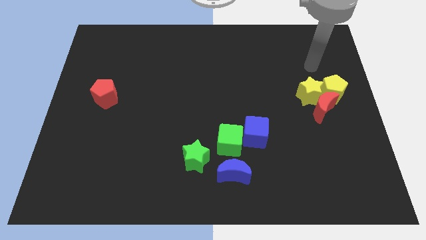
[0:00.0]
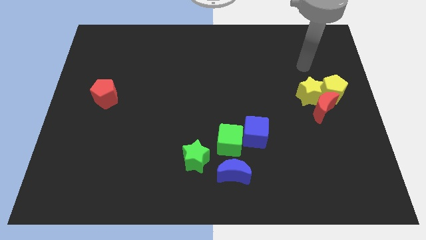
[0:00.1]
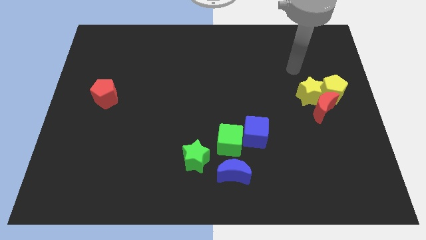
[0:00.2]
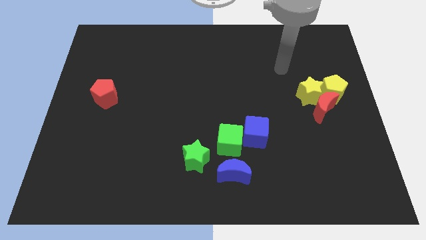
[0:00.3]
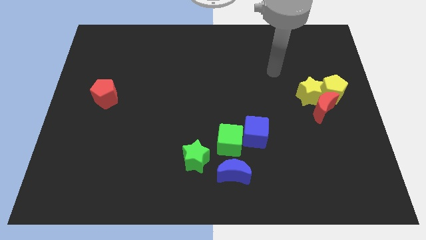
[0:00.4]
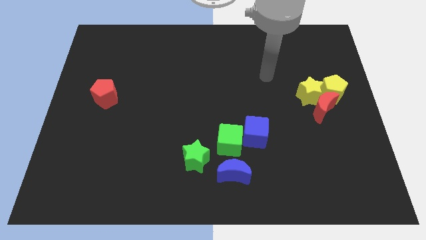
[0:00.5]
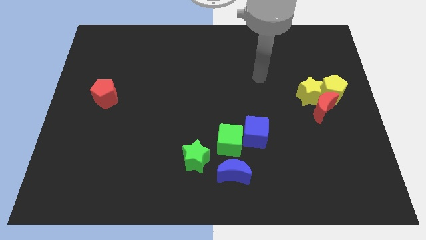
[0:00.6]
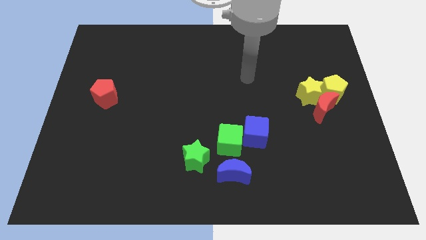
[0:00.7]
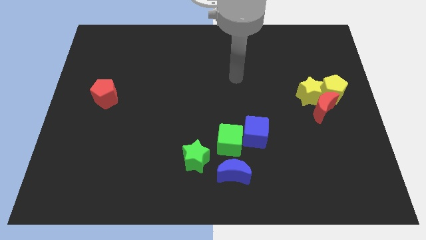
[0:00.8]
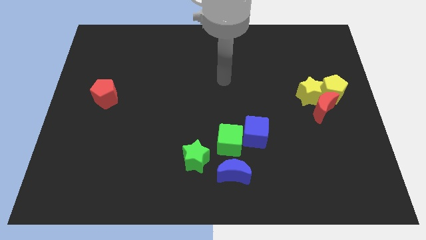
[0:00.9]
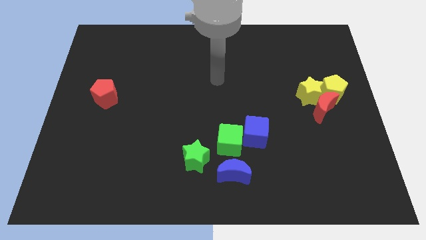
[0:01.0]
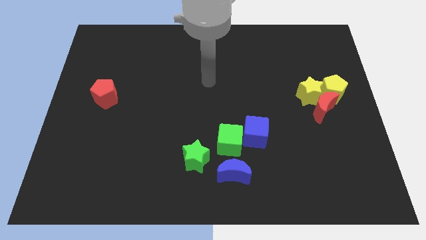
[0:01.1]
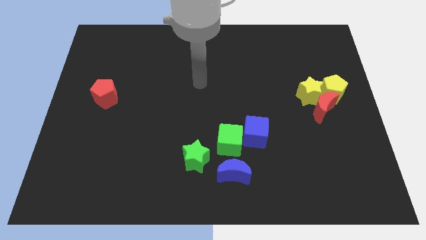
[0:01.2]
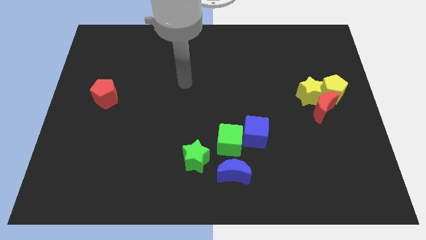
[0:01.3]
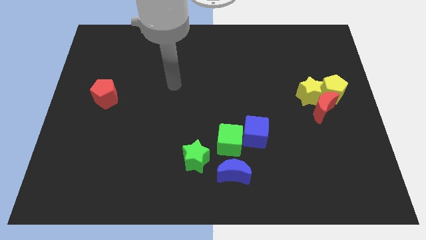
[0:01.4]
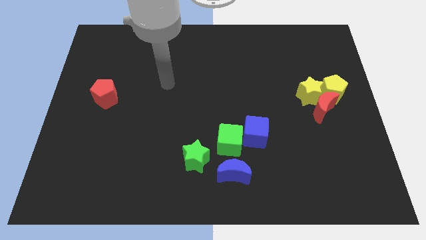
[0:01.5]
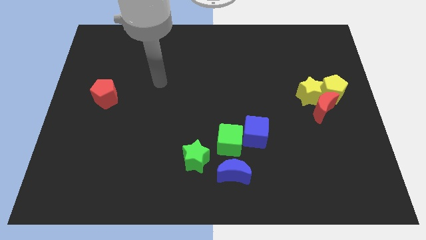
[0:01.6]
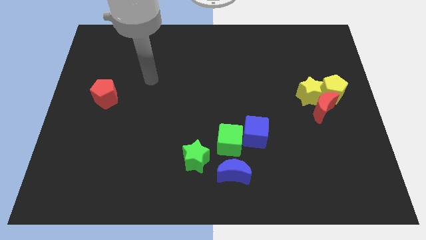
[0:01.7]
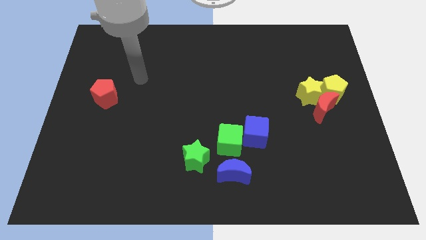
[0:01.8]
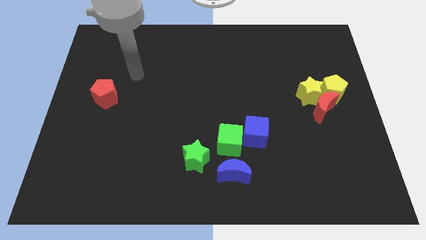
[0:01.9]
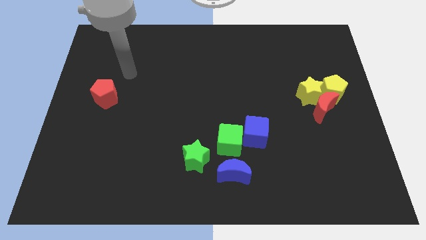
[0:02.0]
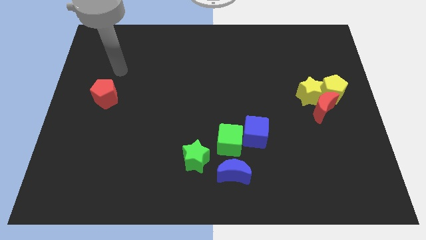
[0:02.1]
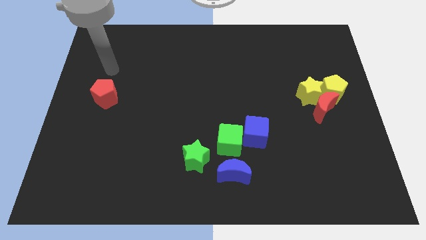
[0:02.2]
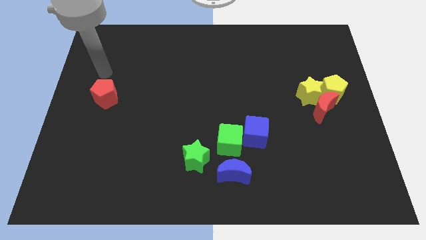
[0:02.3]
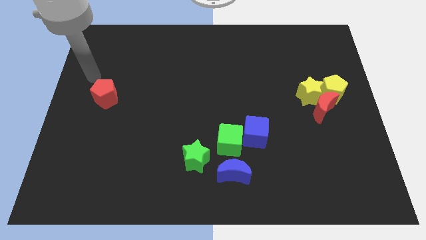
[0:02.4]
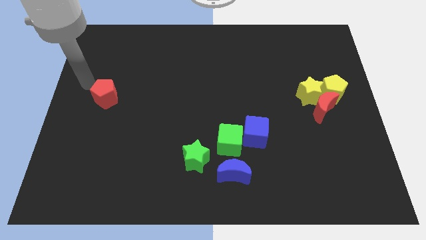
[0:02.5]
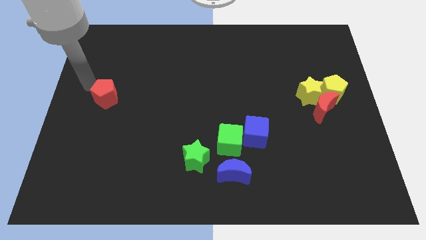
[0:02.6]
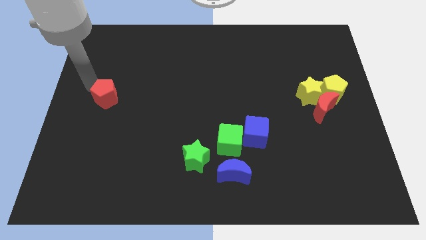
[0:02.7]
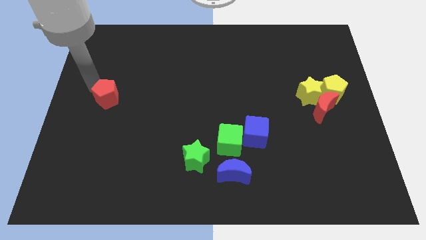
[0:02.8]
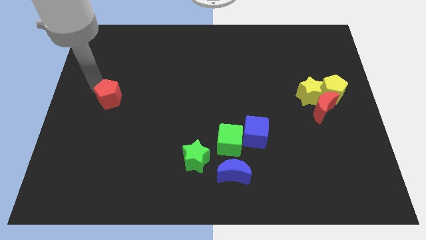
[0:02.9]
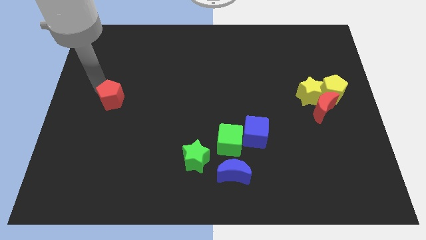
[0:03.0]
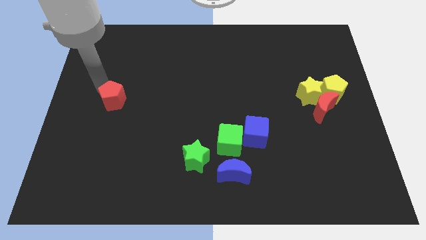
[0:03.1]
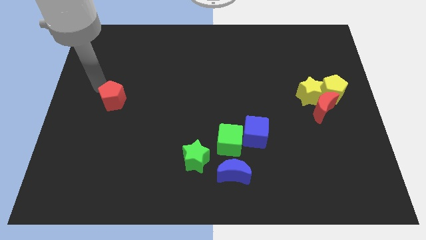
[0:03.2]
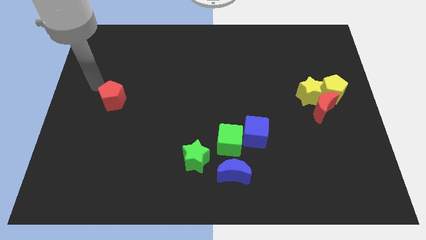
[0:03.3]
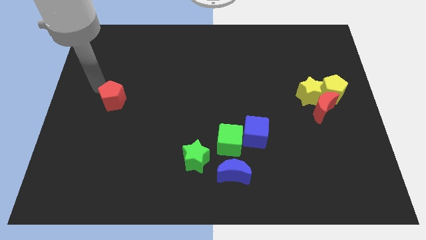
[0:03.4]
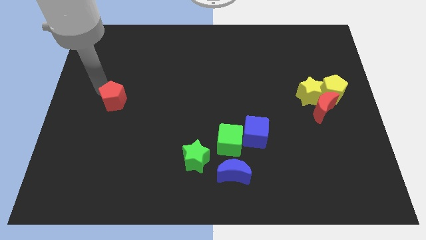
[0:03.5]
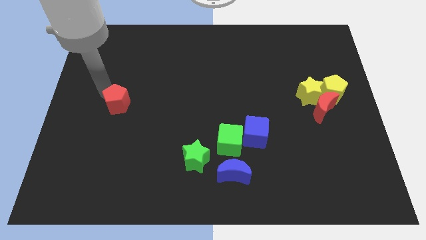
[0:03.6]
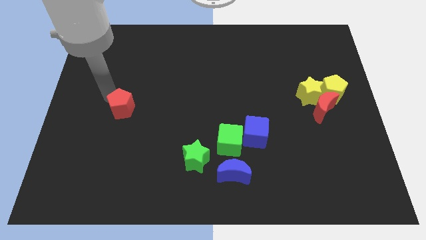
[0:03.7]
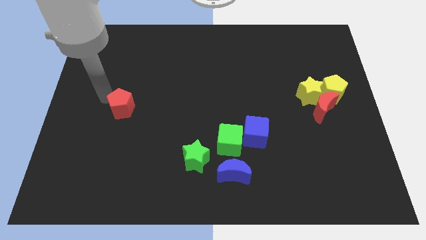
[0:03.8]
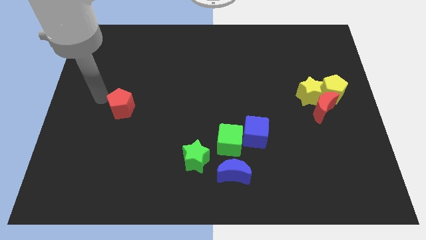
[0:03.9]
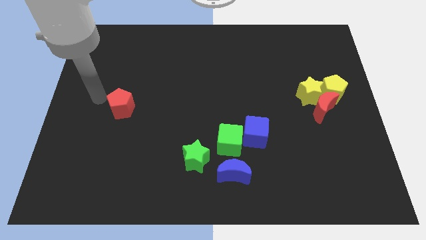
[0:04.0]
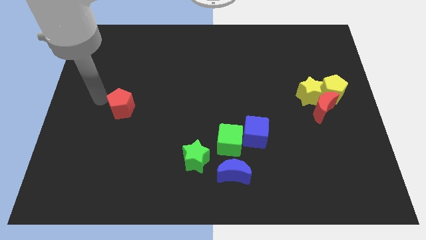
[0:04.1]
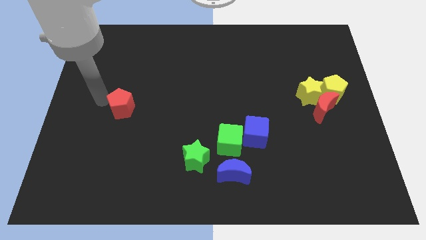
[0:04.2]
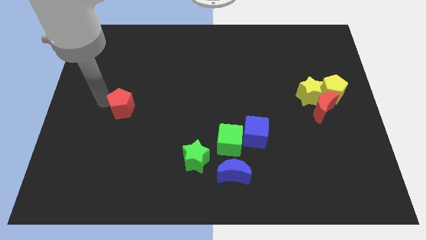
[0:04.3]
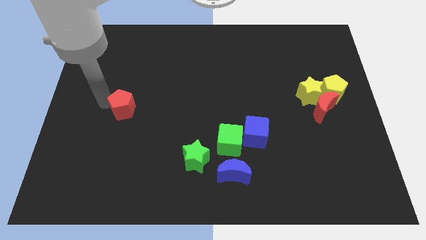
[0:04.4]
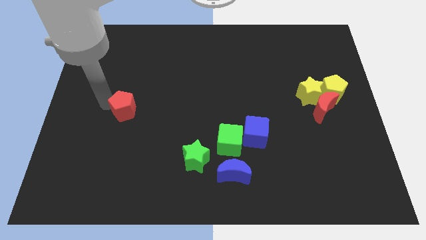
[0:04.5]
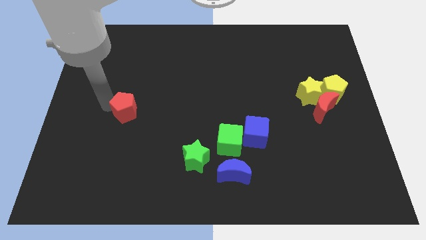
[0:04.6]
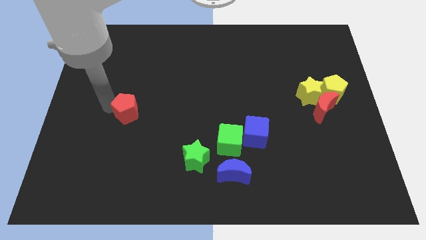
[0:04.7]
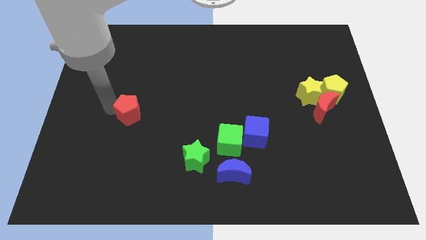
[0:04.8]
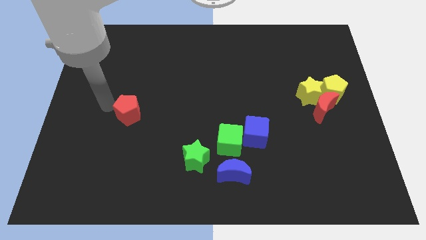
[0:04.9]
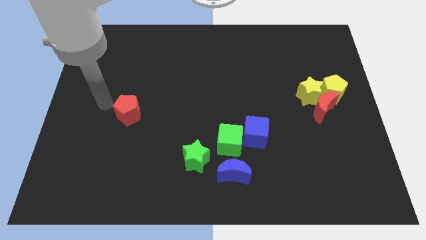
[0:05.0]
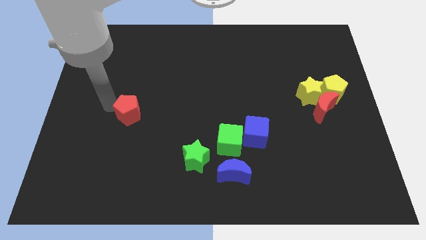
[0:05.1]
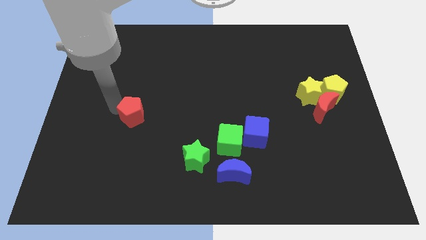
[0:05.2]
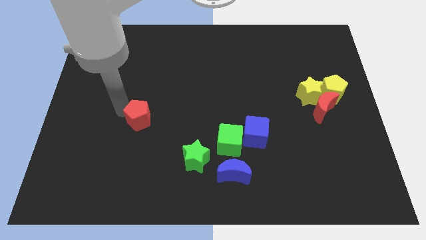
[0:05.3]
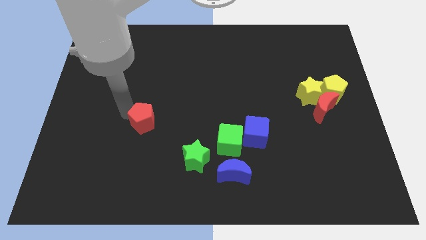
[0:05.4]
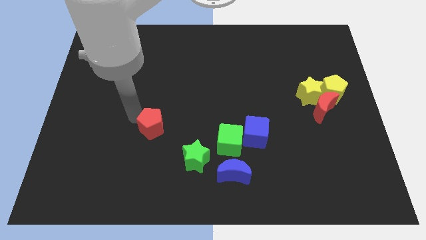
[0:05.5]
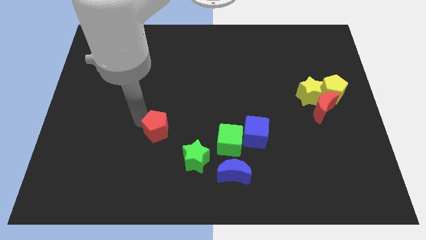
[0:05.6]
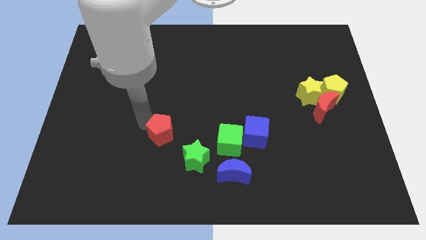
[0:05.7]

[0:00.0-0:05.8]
slide the red pentagon just left of the green cube

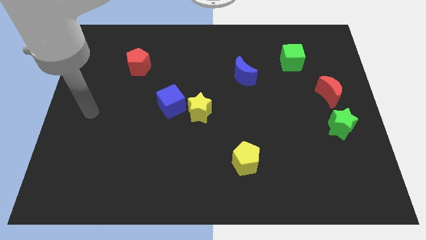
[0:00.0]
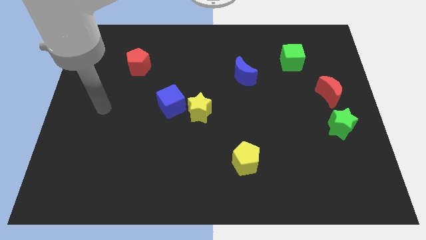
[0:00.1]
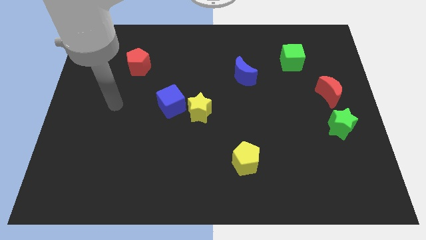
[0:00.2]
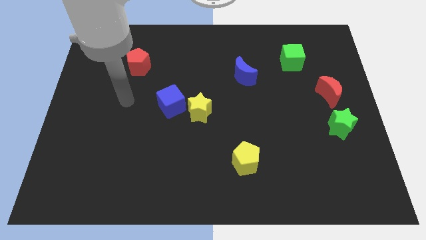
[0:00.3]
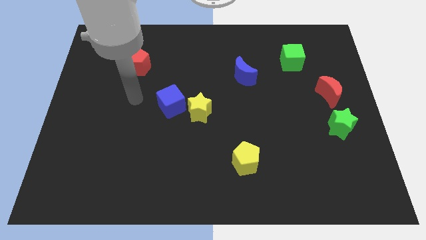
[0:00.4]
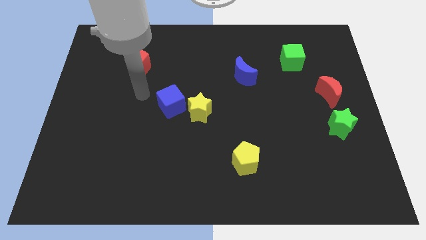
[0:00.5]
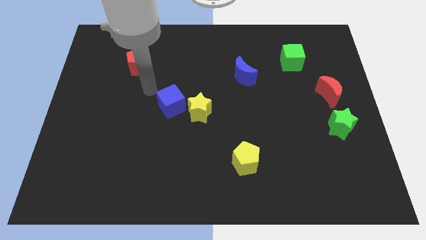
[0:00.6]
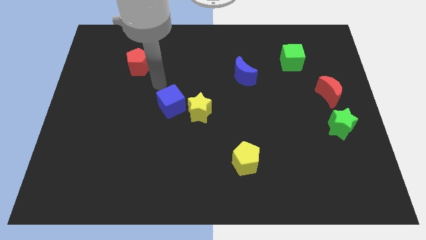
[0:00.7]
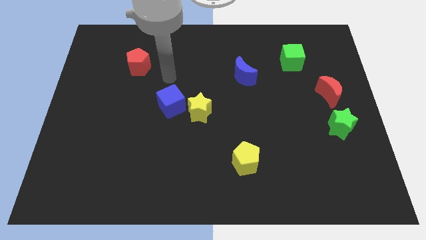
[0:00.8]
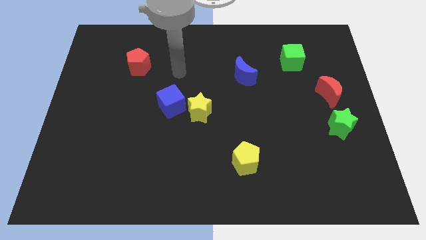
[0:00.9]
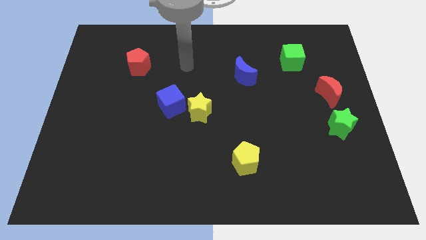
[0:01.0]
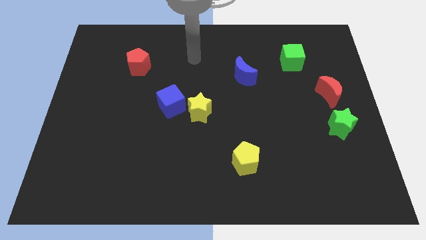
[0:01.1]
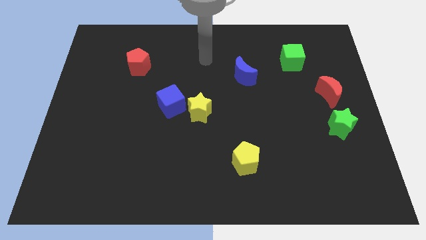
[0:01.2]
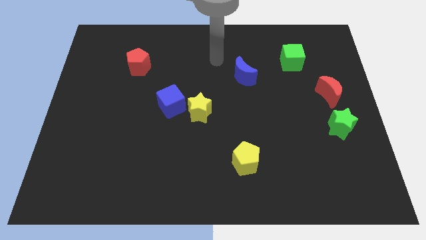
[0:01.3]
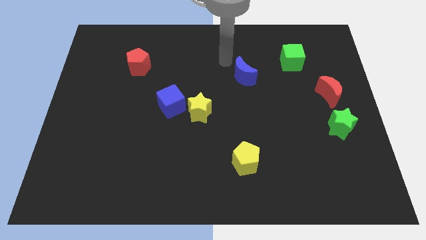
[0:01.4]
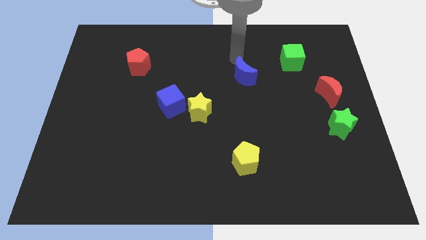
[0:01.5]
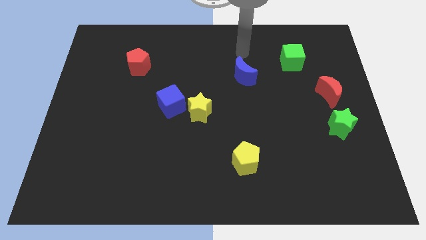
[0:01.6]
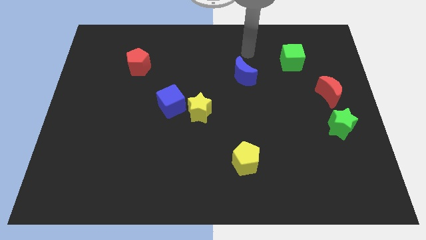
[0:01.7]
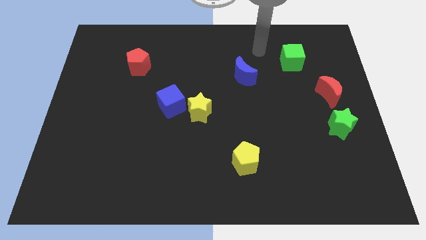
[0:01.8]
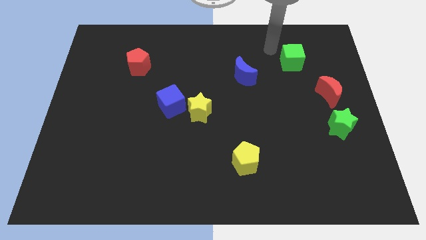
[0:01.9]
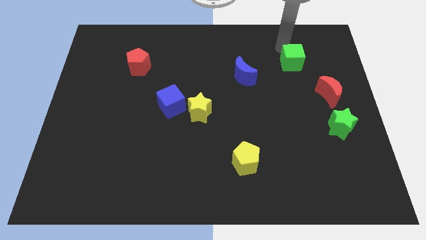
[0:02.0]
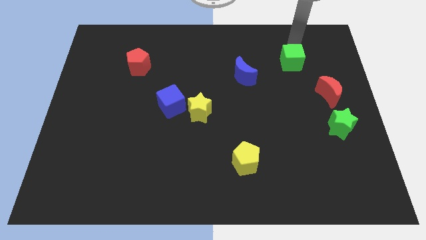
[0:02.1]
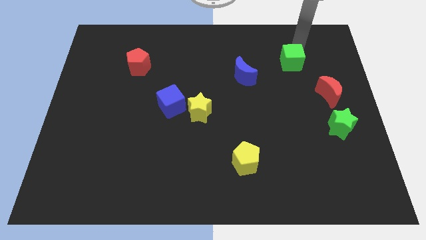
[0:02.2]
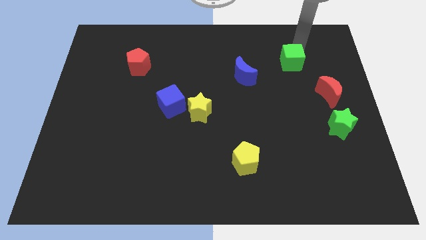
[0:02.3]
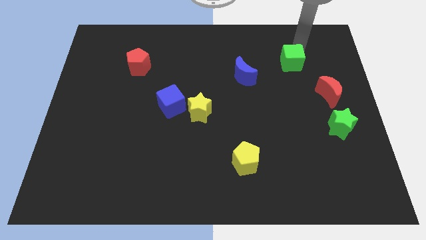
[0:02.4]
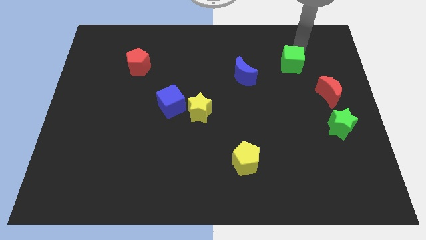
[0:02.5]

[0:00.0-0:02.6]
move the green cube to the right side of the blue moon
